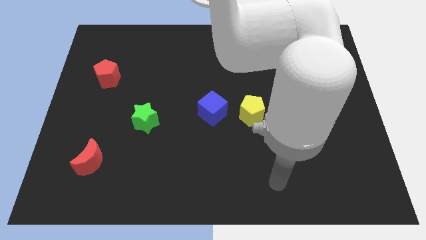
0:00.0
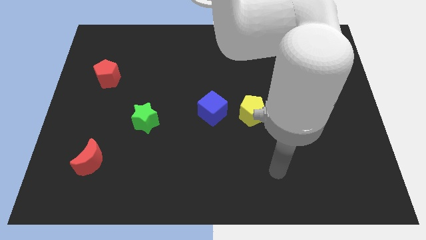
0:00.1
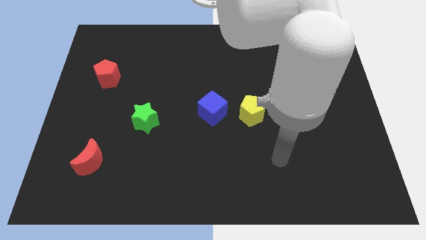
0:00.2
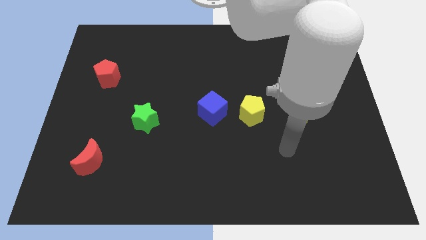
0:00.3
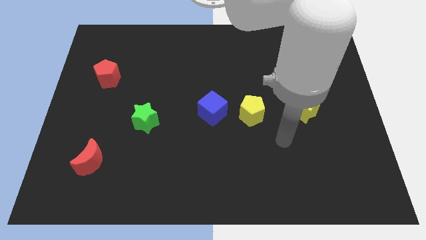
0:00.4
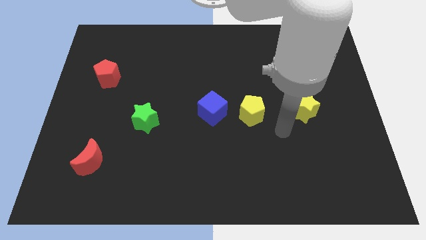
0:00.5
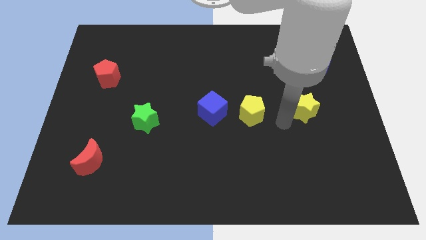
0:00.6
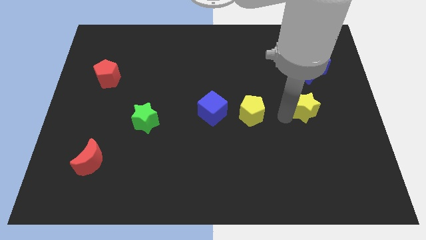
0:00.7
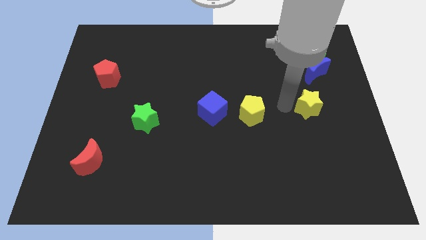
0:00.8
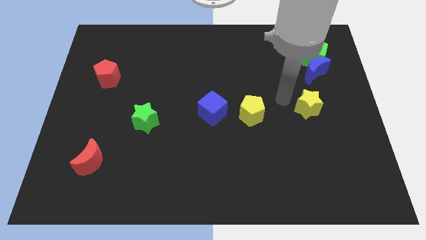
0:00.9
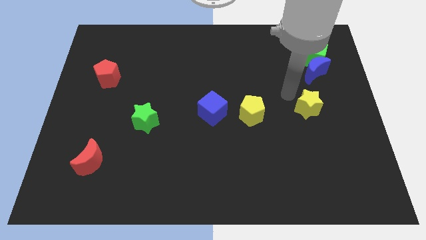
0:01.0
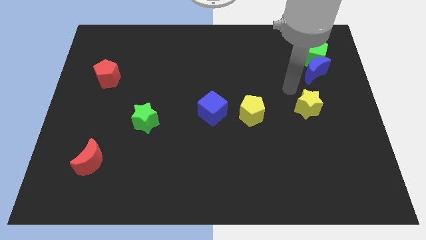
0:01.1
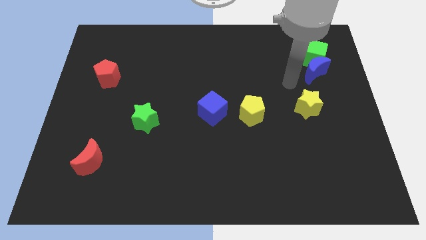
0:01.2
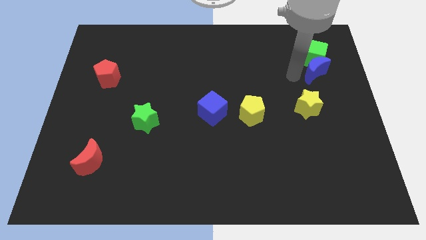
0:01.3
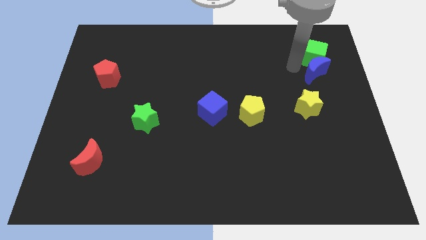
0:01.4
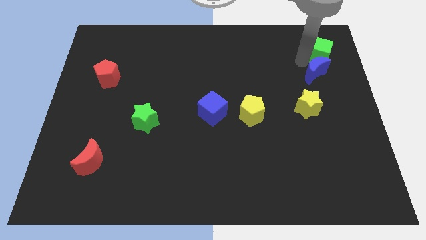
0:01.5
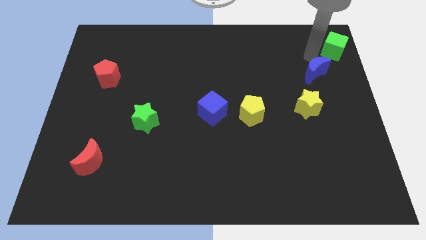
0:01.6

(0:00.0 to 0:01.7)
pull the blue moon apart from the green cube

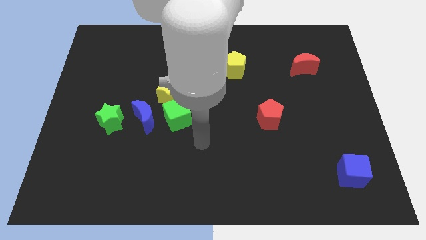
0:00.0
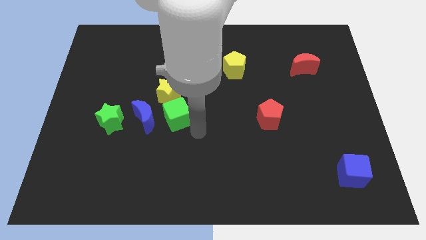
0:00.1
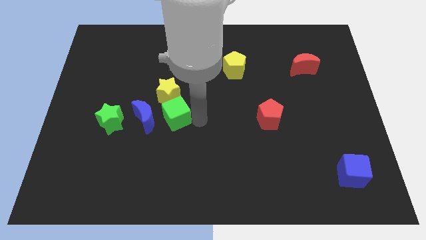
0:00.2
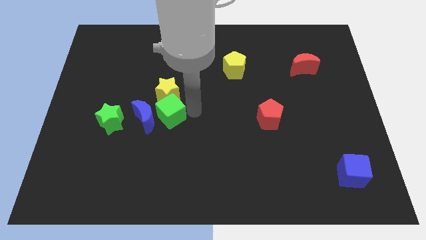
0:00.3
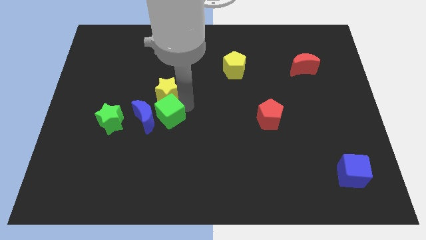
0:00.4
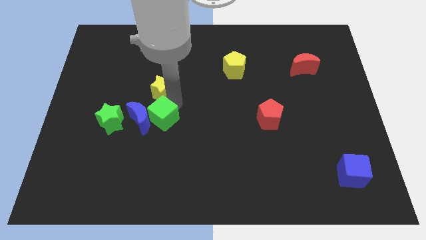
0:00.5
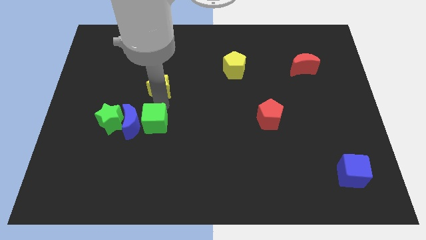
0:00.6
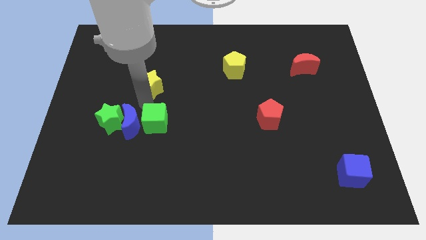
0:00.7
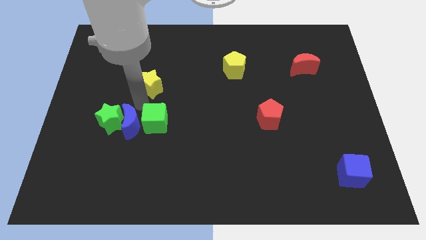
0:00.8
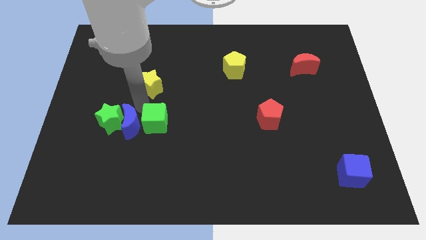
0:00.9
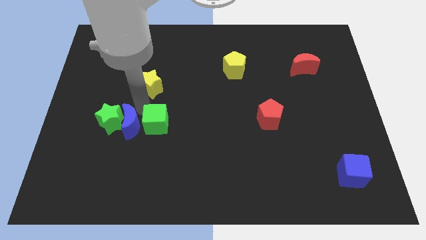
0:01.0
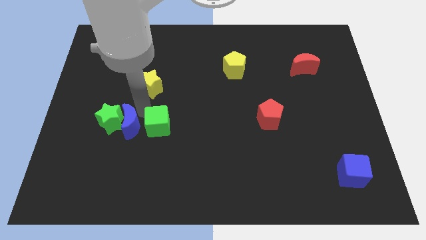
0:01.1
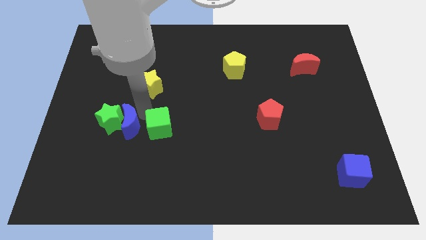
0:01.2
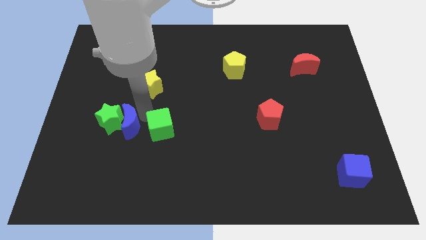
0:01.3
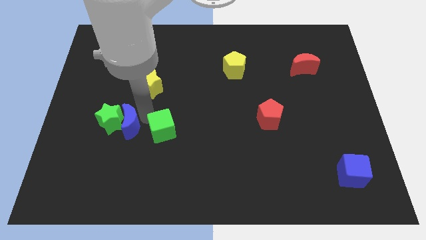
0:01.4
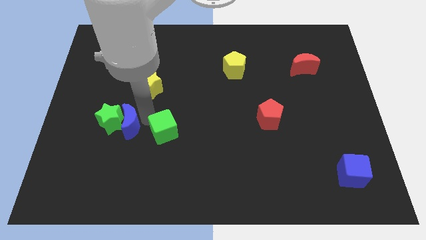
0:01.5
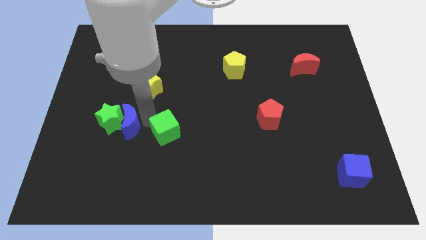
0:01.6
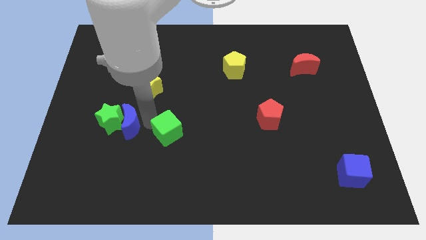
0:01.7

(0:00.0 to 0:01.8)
move the green cube away from the yellow star and blue moon

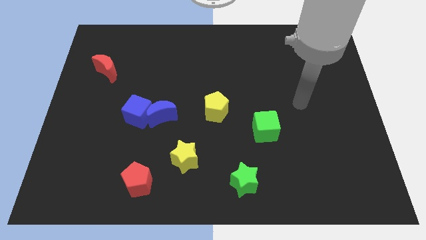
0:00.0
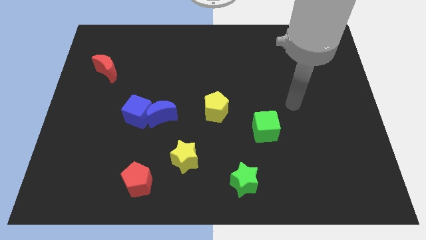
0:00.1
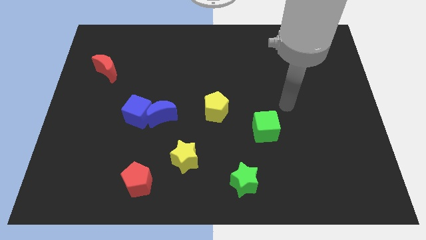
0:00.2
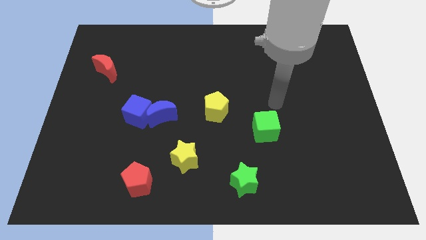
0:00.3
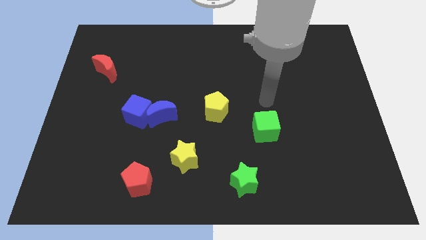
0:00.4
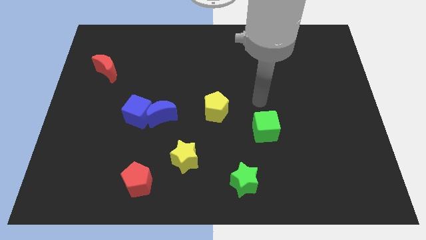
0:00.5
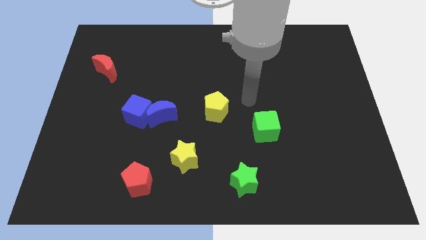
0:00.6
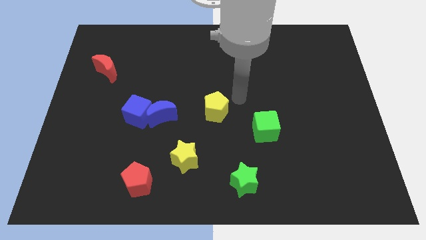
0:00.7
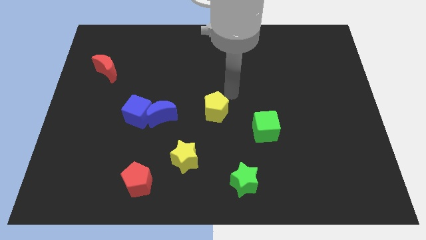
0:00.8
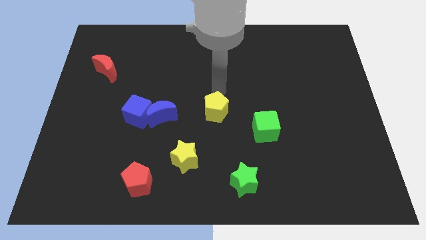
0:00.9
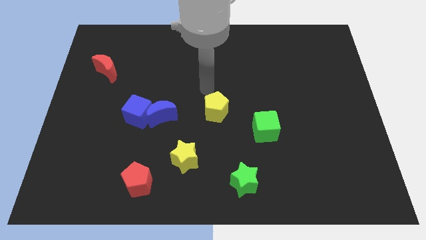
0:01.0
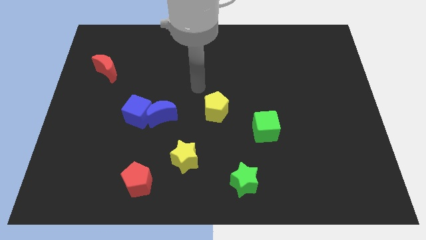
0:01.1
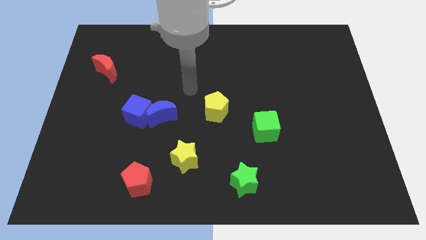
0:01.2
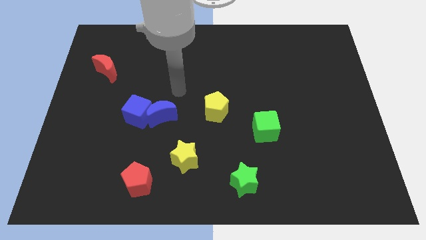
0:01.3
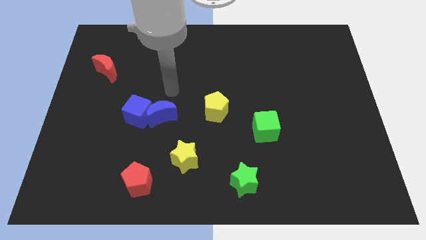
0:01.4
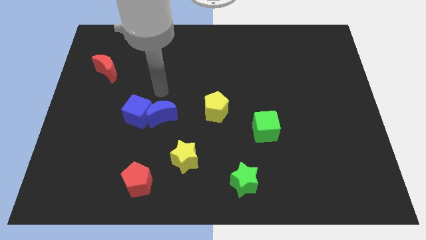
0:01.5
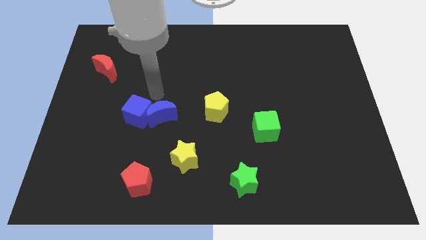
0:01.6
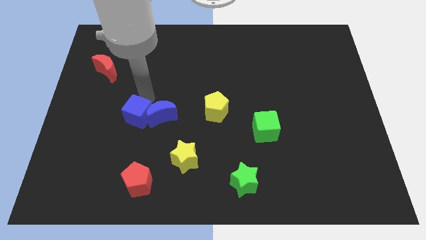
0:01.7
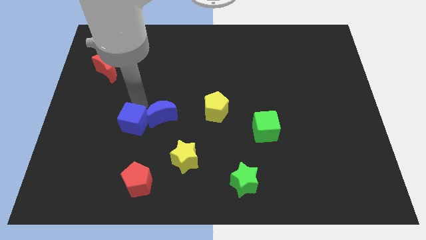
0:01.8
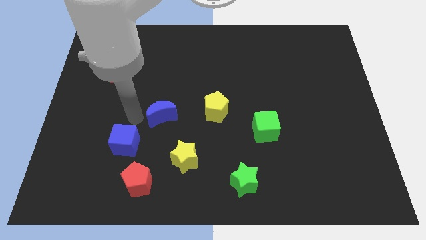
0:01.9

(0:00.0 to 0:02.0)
pull the blue moon apart from the blue cube

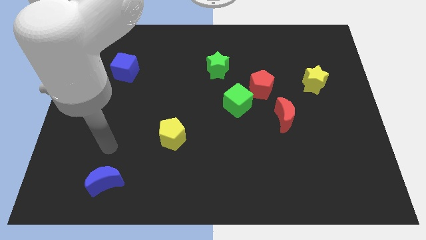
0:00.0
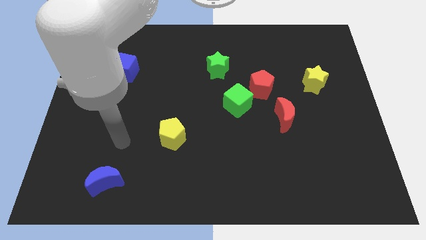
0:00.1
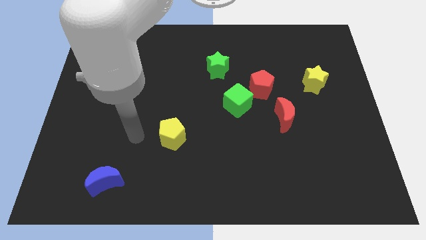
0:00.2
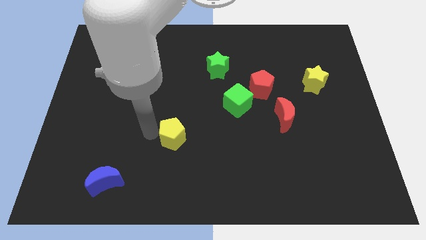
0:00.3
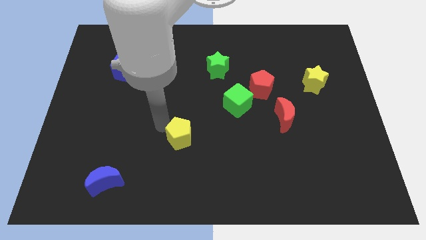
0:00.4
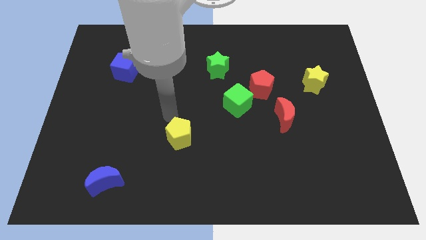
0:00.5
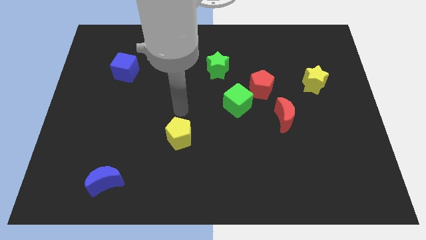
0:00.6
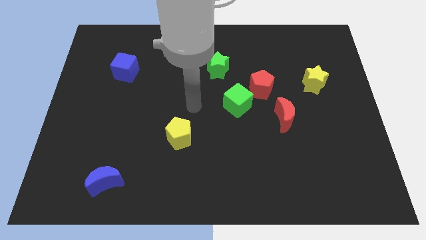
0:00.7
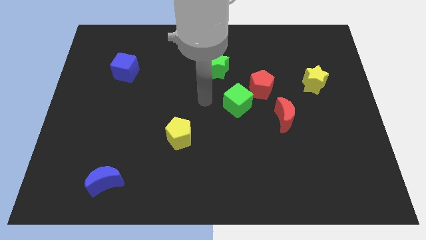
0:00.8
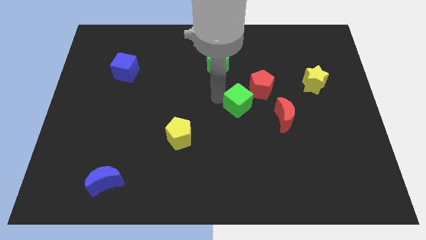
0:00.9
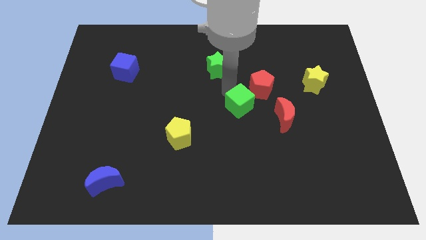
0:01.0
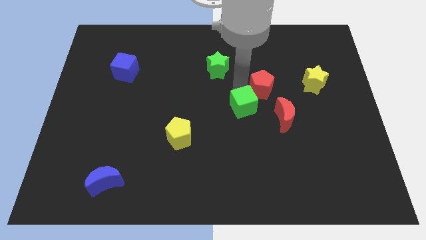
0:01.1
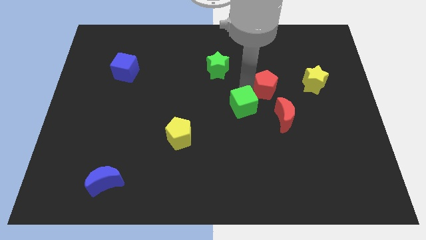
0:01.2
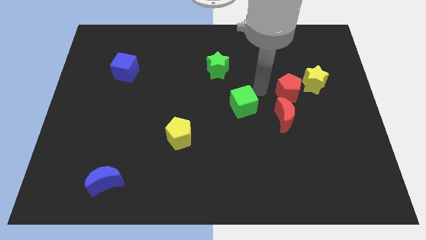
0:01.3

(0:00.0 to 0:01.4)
move the green cube away from the red pentagon

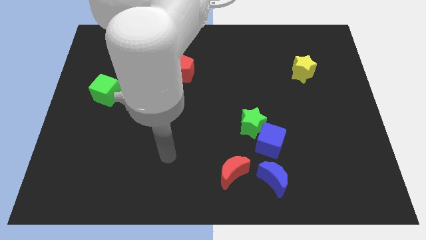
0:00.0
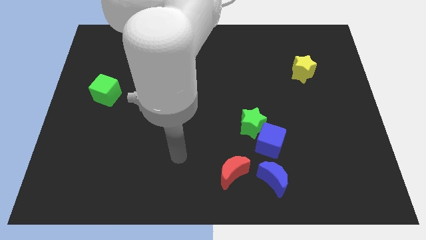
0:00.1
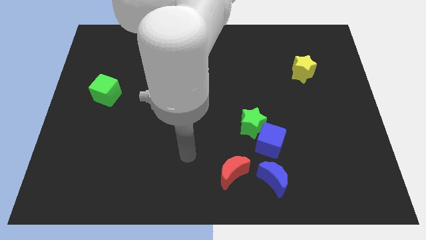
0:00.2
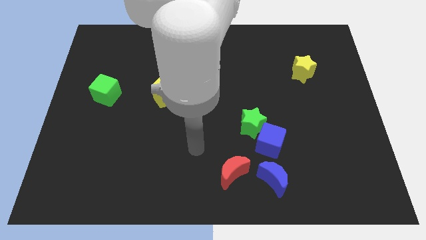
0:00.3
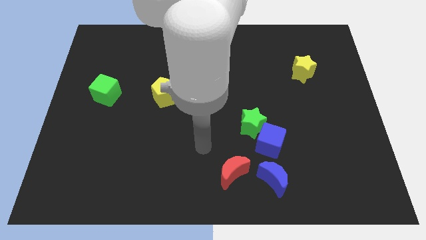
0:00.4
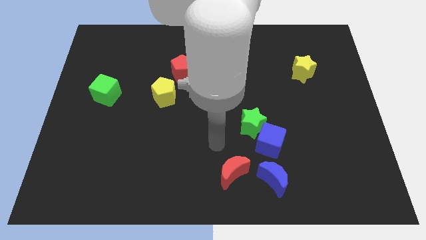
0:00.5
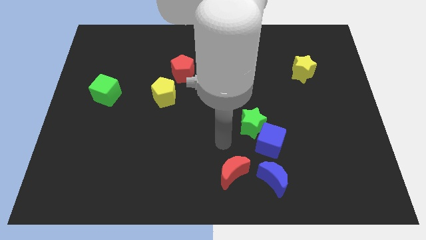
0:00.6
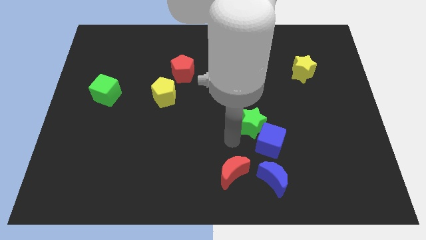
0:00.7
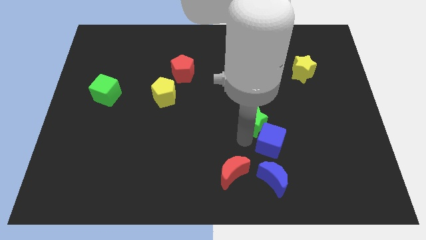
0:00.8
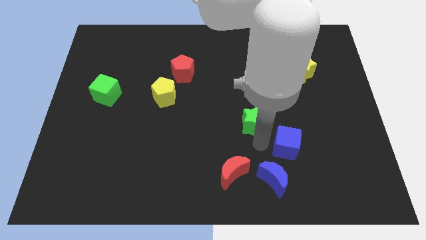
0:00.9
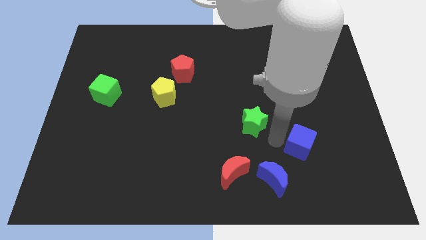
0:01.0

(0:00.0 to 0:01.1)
pull the green star apart from the blue cube

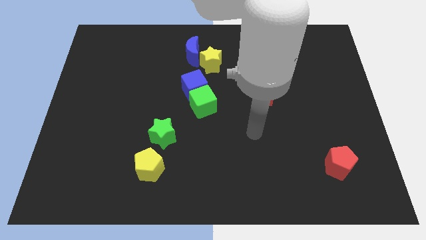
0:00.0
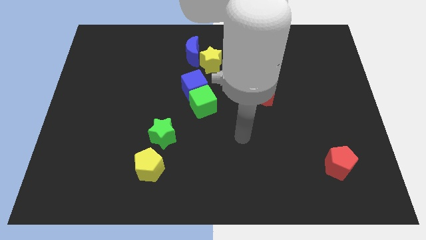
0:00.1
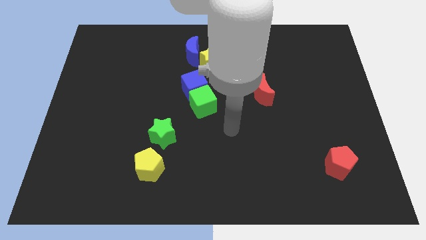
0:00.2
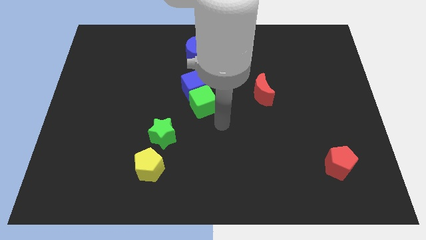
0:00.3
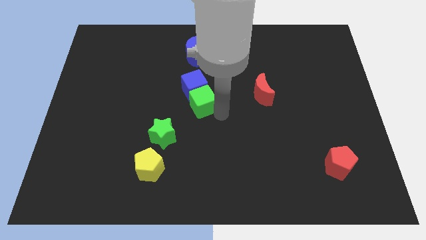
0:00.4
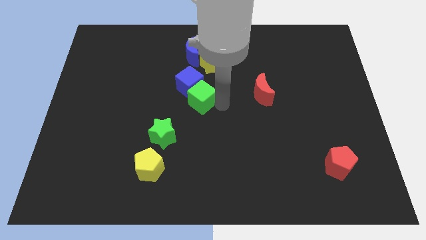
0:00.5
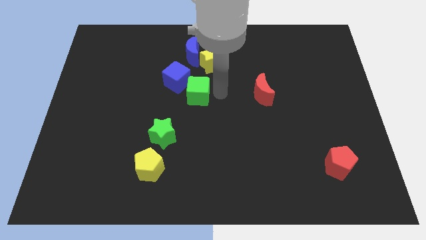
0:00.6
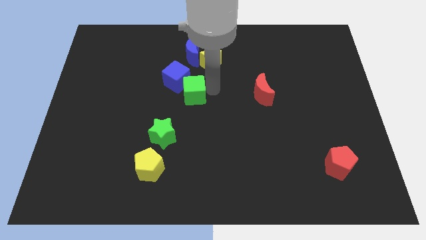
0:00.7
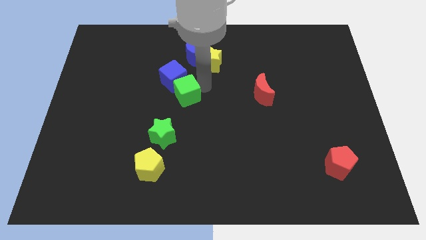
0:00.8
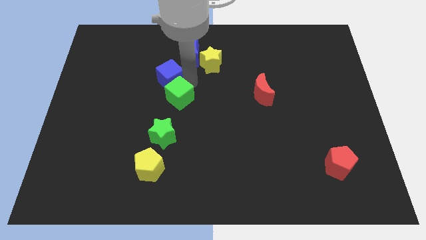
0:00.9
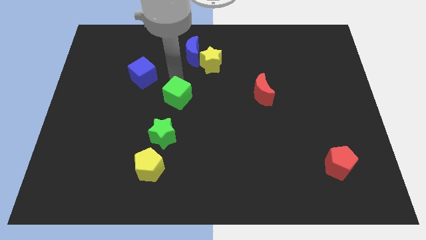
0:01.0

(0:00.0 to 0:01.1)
move the green cube away from the blue cube
